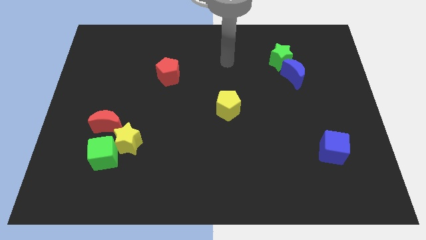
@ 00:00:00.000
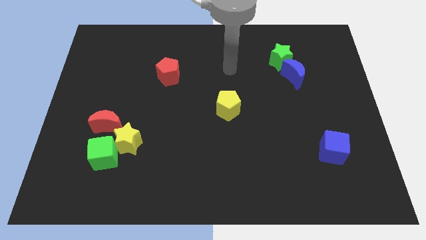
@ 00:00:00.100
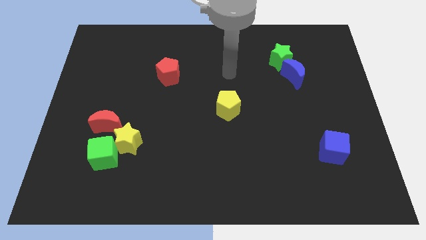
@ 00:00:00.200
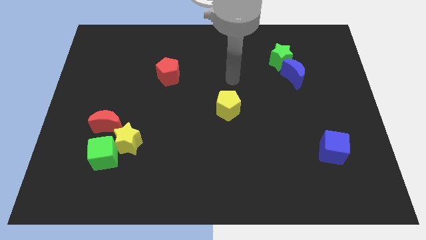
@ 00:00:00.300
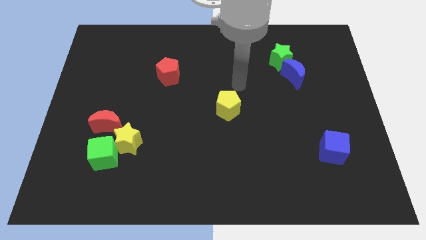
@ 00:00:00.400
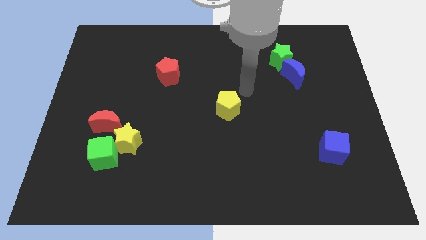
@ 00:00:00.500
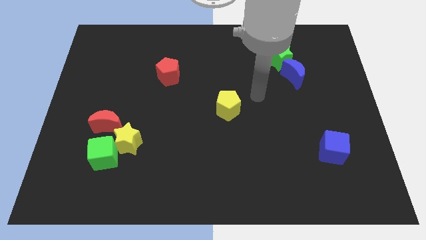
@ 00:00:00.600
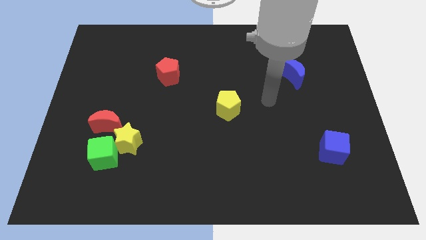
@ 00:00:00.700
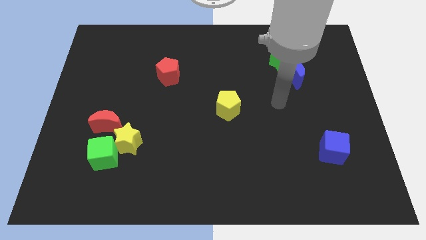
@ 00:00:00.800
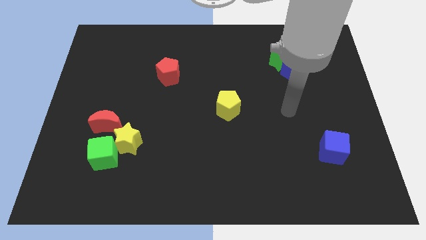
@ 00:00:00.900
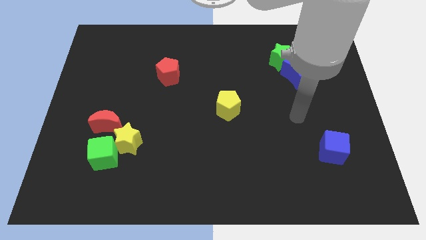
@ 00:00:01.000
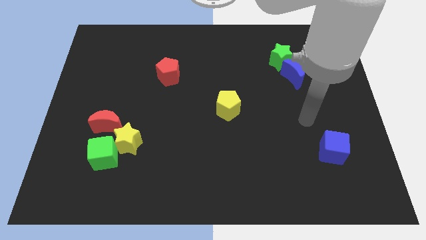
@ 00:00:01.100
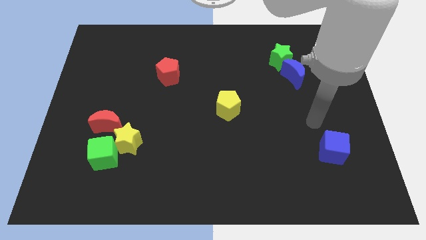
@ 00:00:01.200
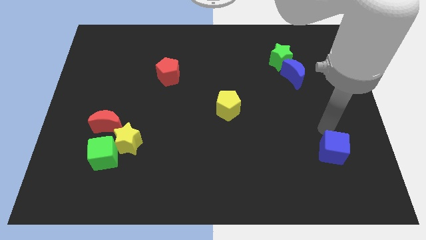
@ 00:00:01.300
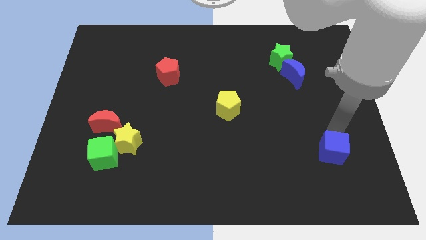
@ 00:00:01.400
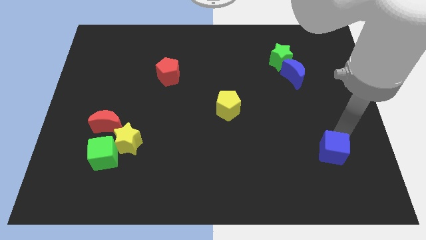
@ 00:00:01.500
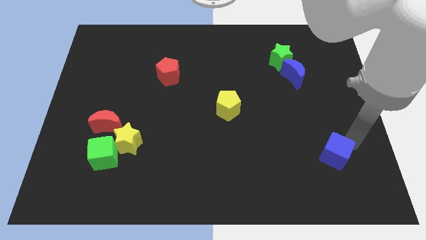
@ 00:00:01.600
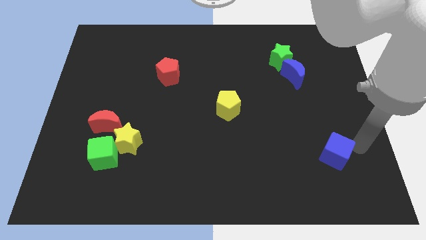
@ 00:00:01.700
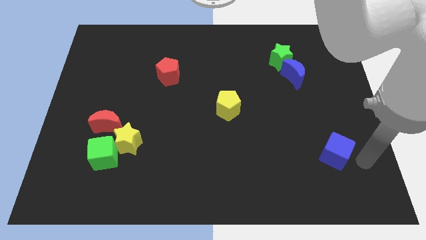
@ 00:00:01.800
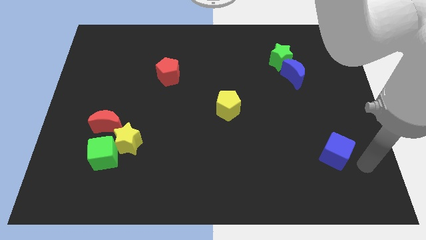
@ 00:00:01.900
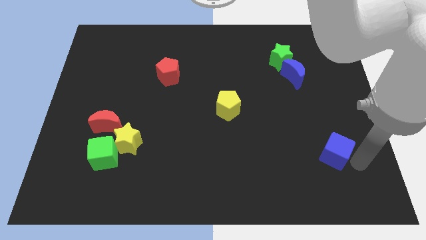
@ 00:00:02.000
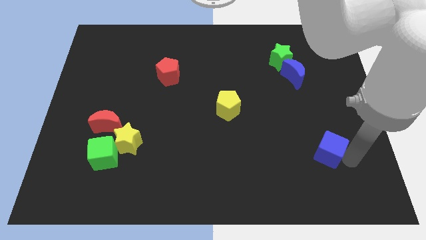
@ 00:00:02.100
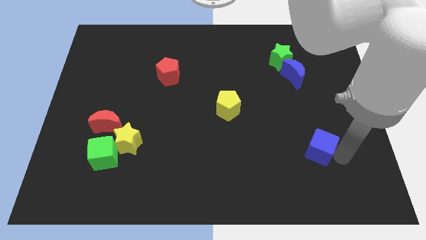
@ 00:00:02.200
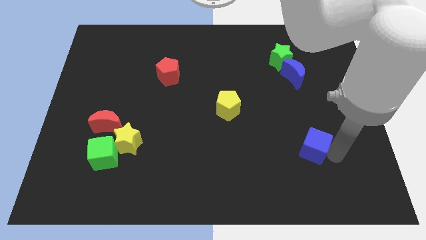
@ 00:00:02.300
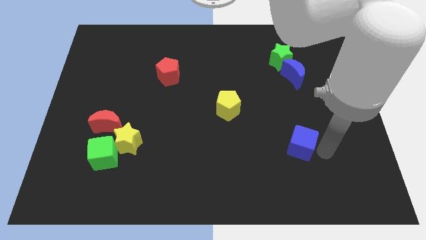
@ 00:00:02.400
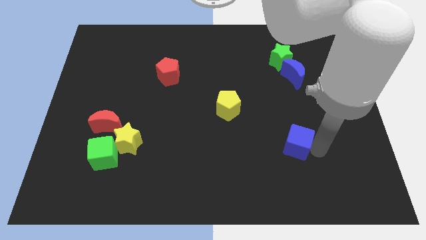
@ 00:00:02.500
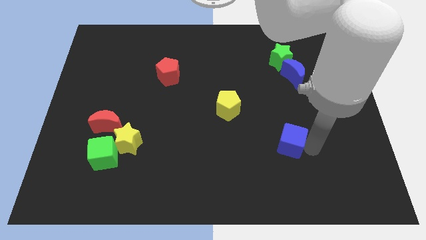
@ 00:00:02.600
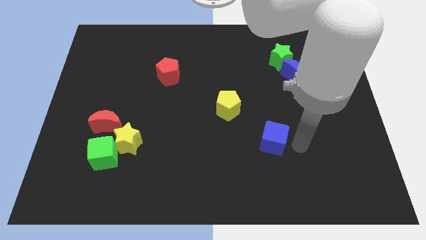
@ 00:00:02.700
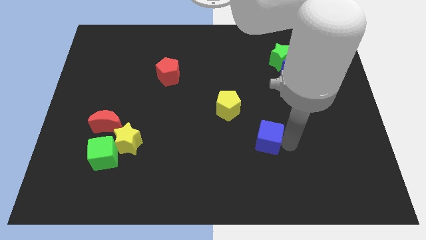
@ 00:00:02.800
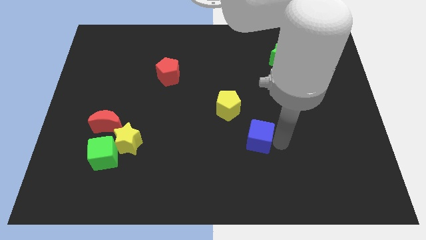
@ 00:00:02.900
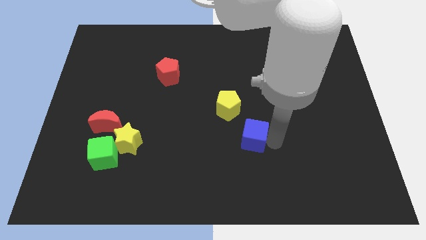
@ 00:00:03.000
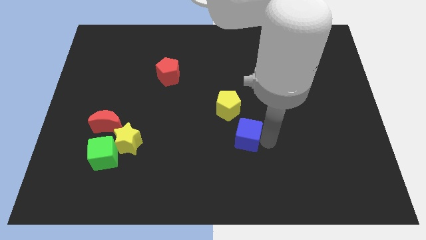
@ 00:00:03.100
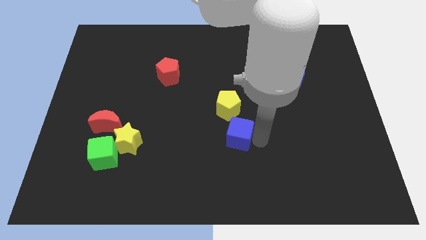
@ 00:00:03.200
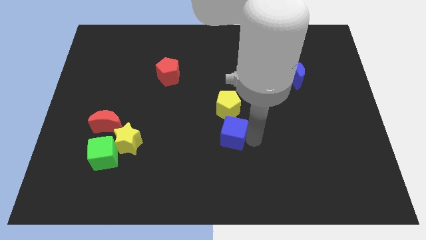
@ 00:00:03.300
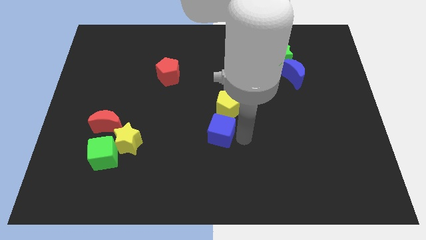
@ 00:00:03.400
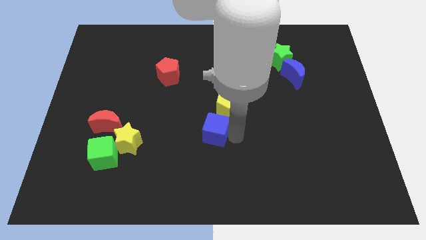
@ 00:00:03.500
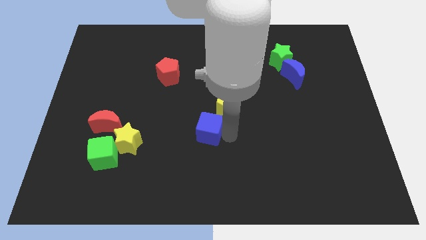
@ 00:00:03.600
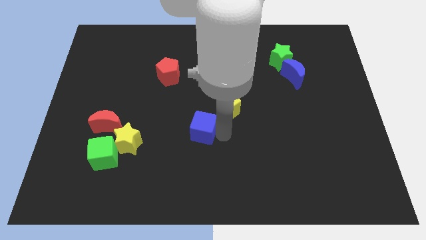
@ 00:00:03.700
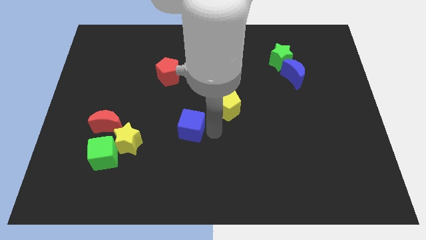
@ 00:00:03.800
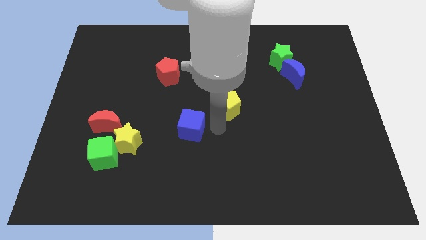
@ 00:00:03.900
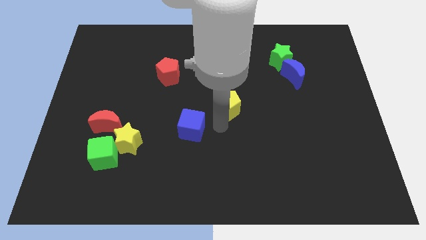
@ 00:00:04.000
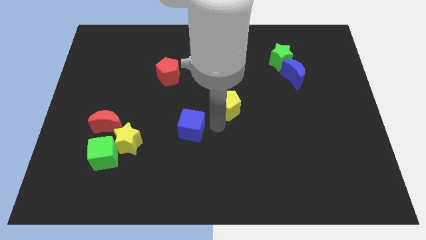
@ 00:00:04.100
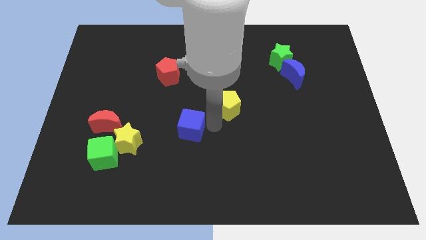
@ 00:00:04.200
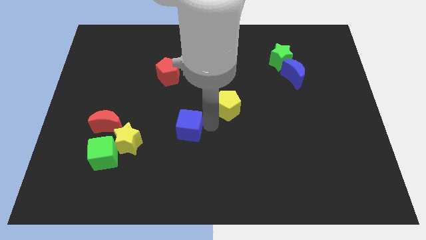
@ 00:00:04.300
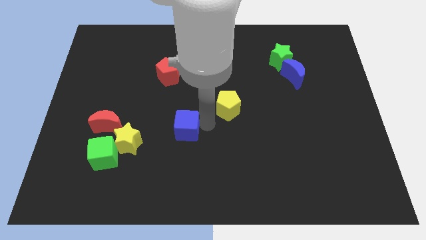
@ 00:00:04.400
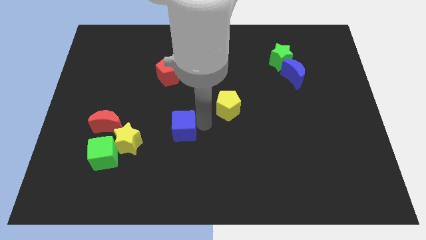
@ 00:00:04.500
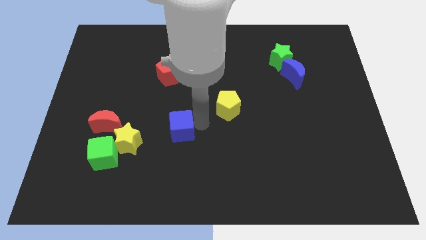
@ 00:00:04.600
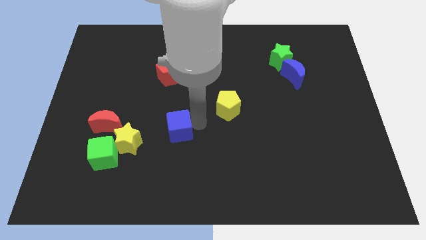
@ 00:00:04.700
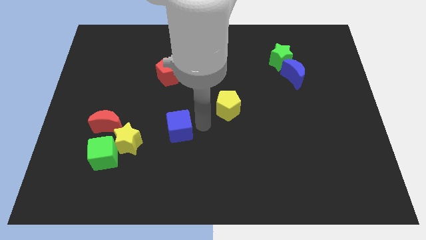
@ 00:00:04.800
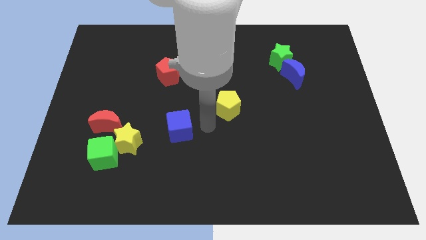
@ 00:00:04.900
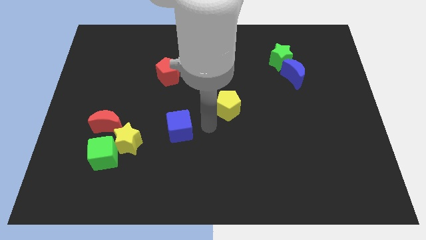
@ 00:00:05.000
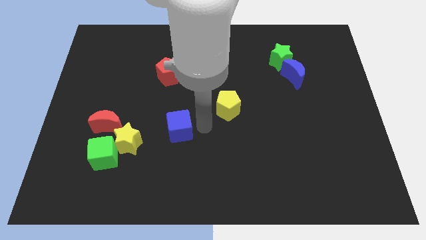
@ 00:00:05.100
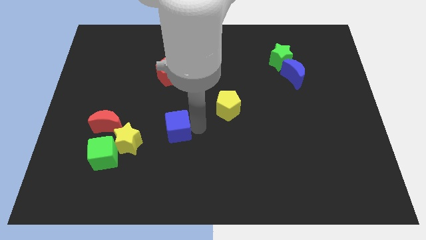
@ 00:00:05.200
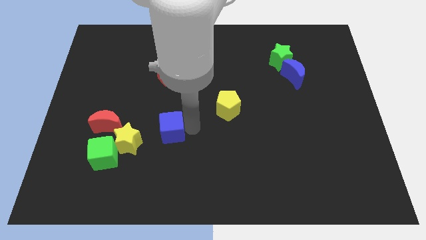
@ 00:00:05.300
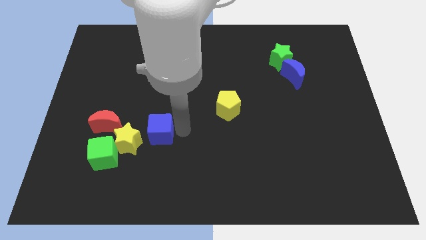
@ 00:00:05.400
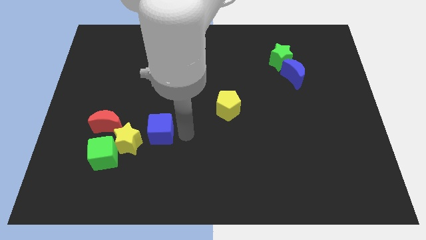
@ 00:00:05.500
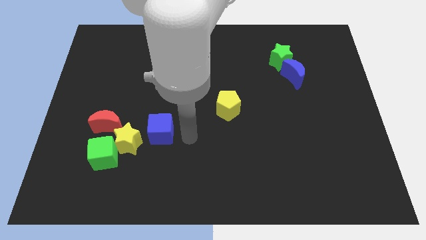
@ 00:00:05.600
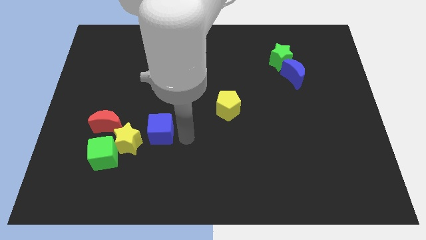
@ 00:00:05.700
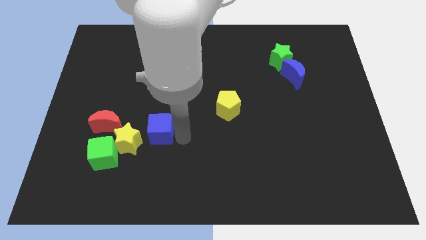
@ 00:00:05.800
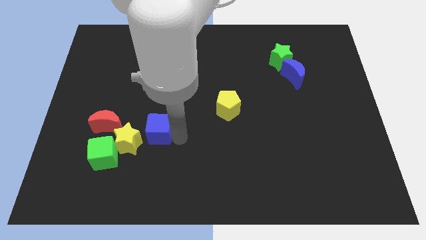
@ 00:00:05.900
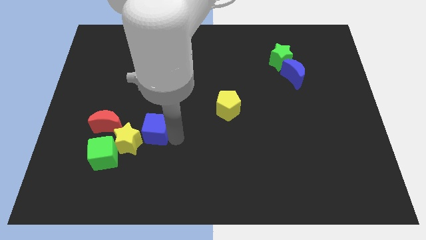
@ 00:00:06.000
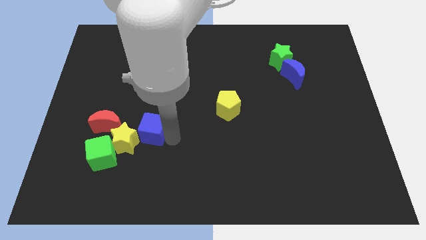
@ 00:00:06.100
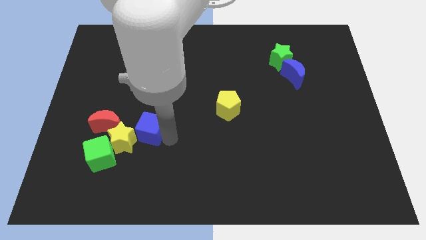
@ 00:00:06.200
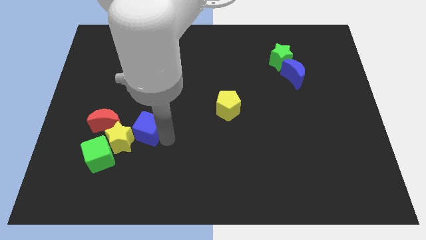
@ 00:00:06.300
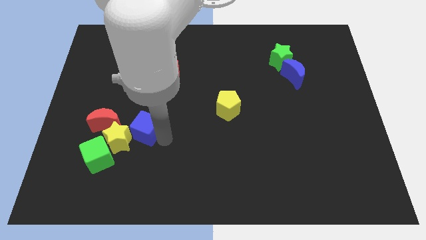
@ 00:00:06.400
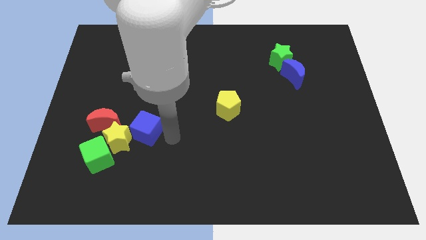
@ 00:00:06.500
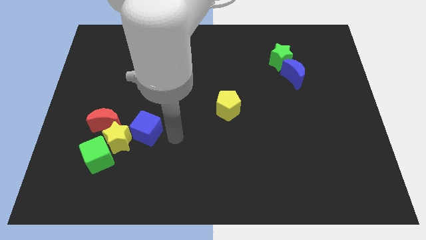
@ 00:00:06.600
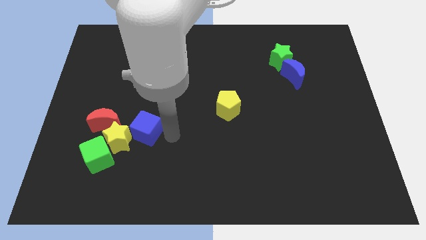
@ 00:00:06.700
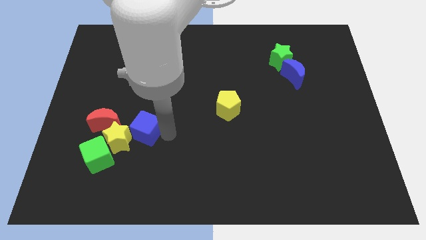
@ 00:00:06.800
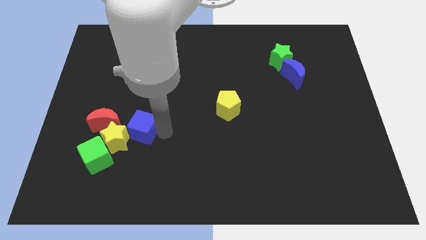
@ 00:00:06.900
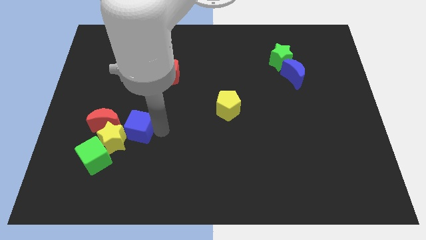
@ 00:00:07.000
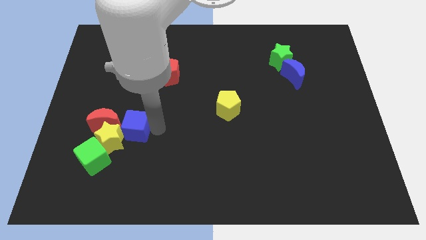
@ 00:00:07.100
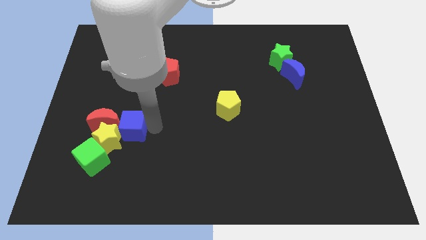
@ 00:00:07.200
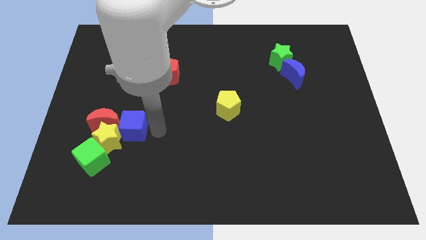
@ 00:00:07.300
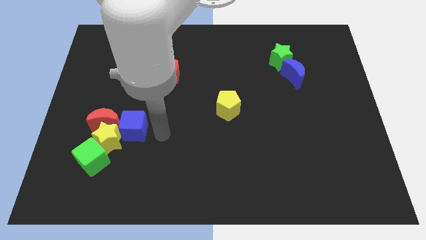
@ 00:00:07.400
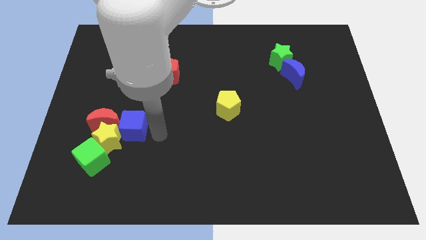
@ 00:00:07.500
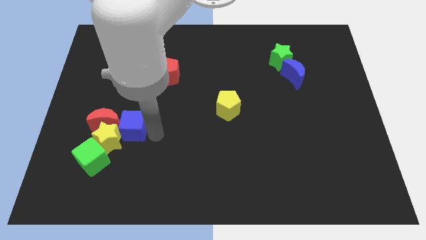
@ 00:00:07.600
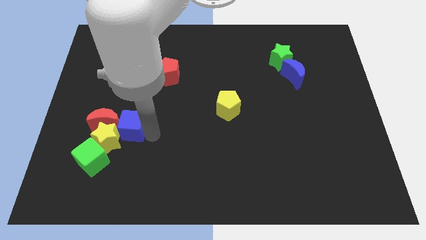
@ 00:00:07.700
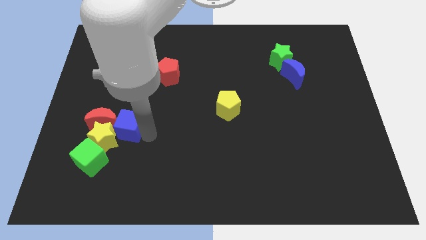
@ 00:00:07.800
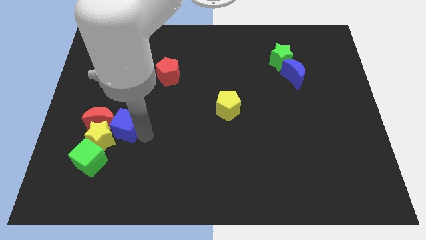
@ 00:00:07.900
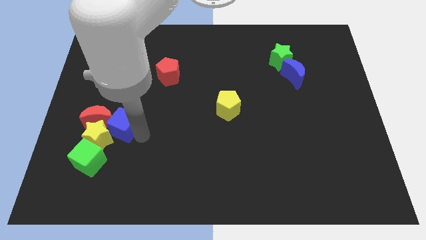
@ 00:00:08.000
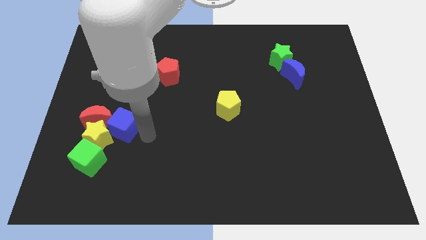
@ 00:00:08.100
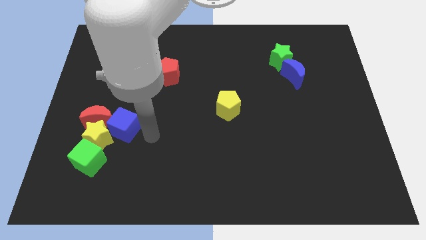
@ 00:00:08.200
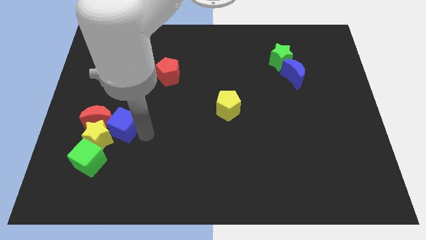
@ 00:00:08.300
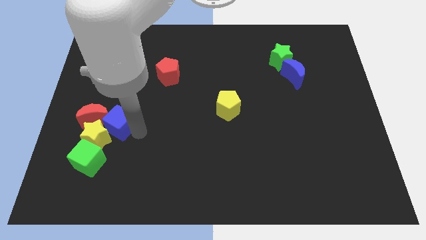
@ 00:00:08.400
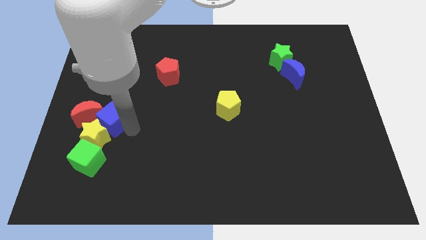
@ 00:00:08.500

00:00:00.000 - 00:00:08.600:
push the blue cube to the red moon
